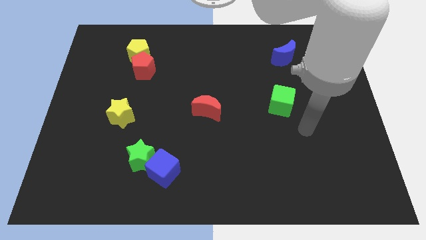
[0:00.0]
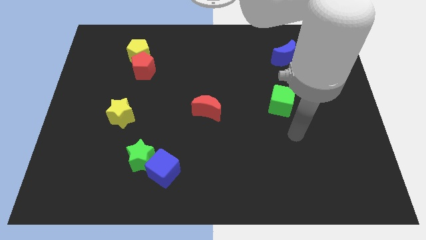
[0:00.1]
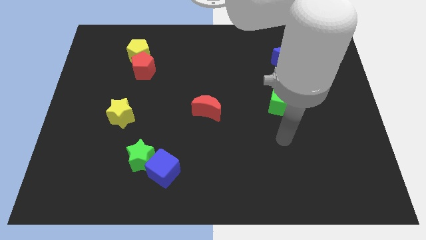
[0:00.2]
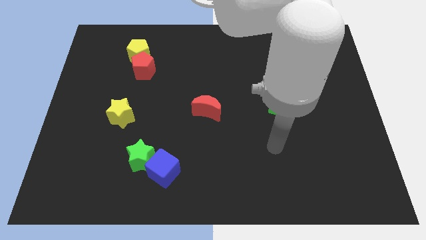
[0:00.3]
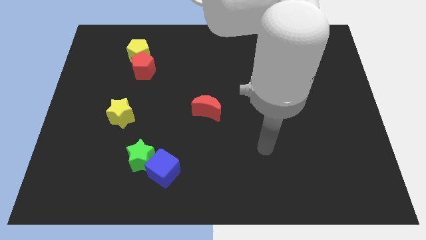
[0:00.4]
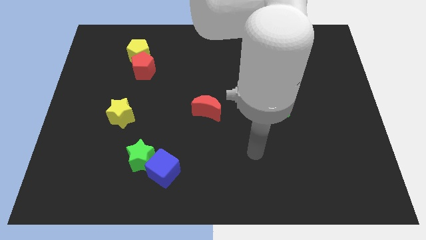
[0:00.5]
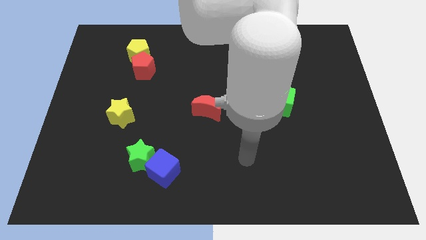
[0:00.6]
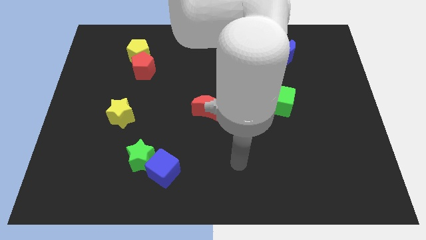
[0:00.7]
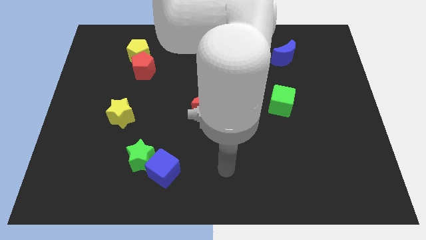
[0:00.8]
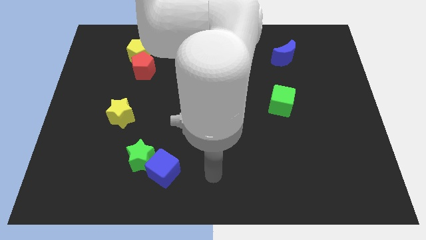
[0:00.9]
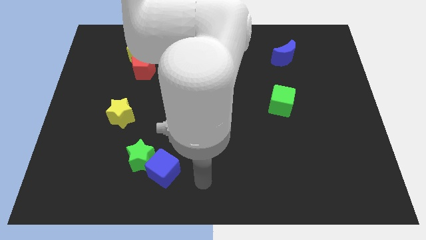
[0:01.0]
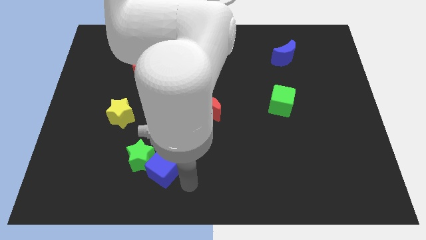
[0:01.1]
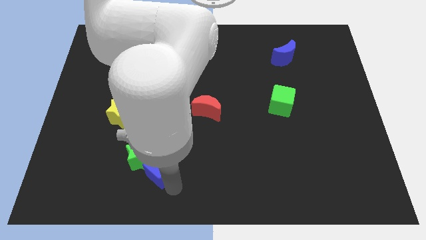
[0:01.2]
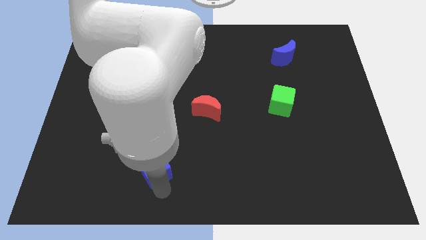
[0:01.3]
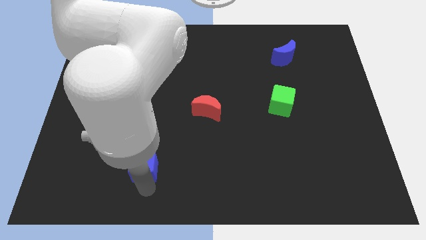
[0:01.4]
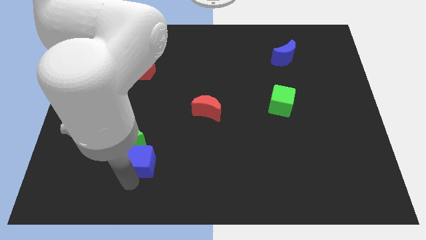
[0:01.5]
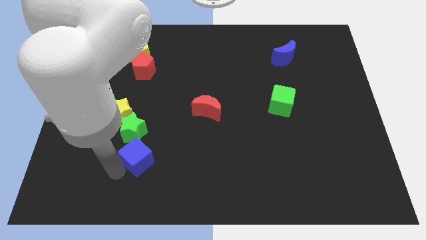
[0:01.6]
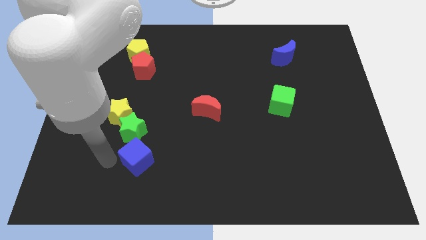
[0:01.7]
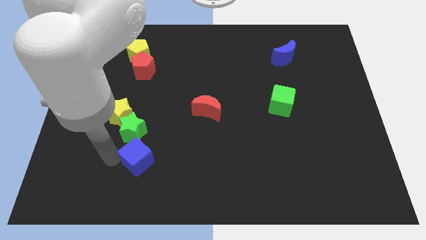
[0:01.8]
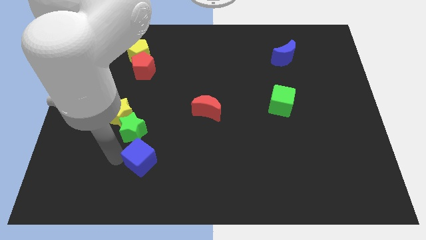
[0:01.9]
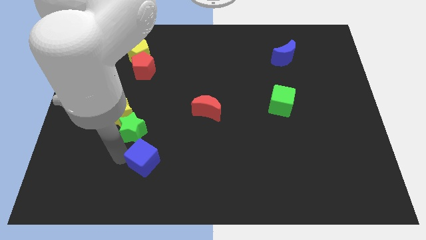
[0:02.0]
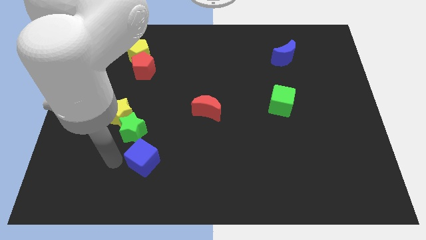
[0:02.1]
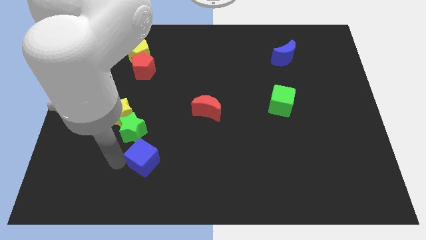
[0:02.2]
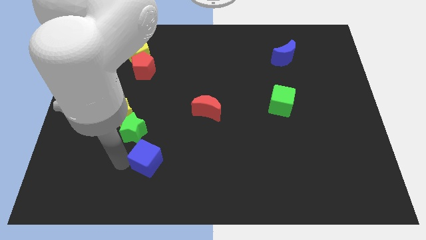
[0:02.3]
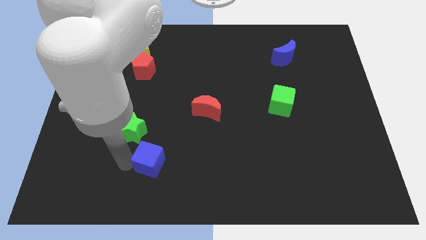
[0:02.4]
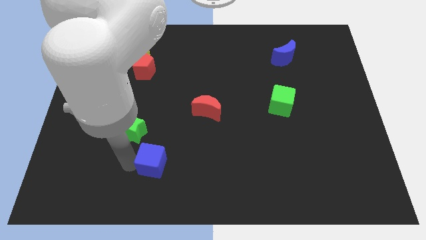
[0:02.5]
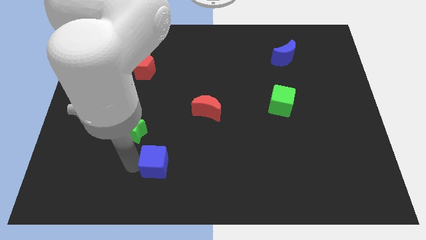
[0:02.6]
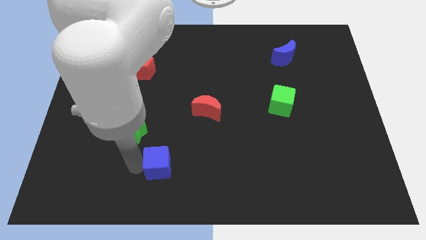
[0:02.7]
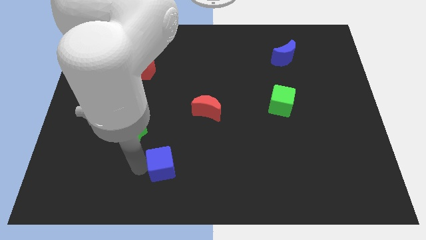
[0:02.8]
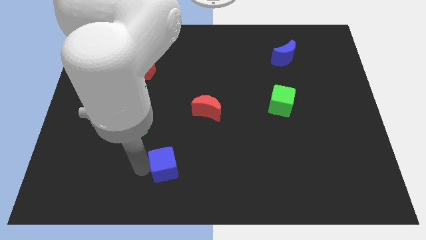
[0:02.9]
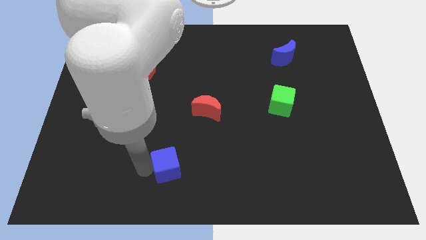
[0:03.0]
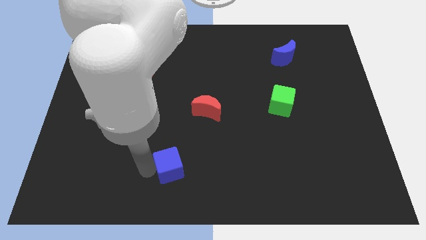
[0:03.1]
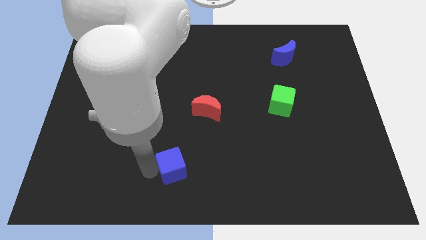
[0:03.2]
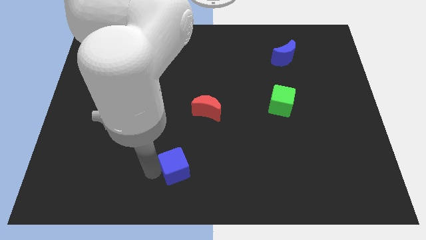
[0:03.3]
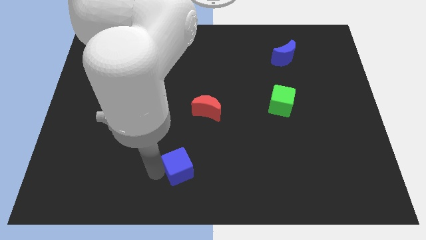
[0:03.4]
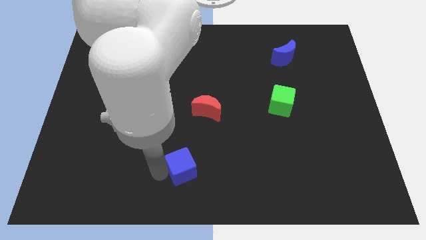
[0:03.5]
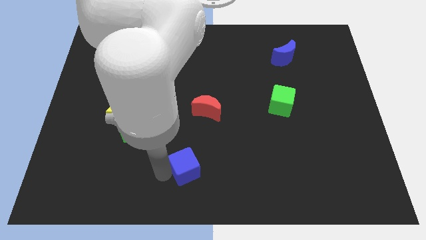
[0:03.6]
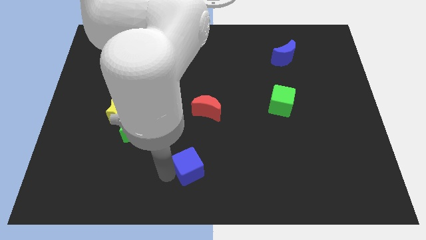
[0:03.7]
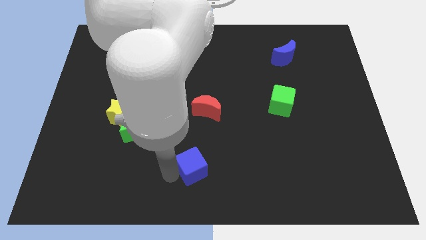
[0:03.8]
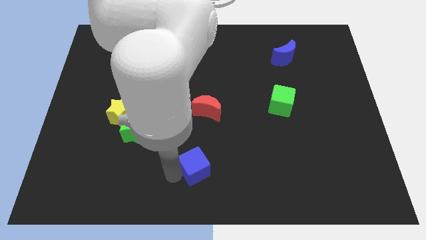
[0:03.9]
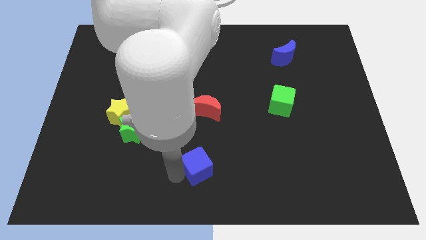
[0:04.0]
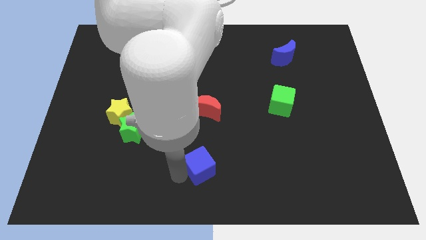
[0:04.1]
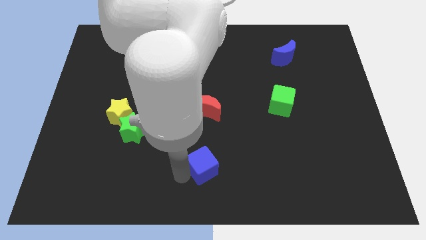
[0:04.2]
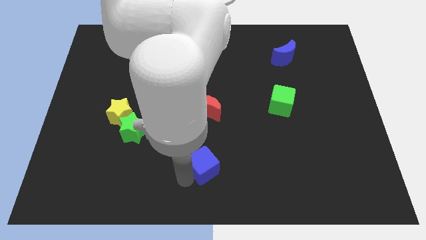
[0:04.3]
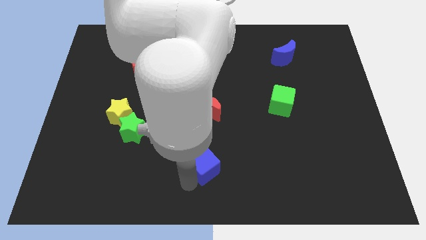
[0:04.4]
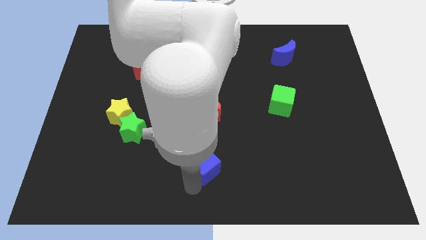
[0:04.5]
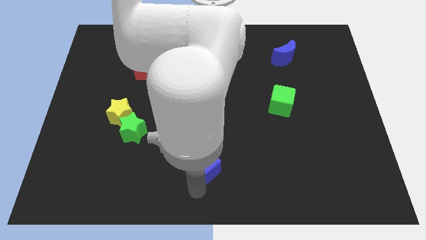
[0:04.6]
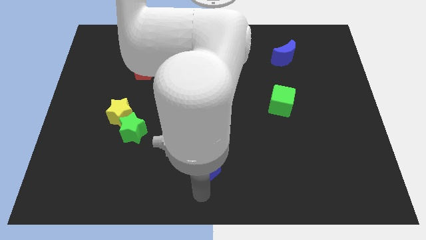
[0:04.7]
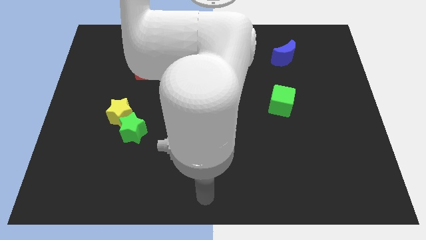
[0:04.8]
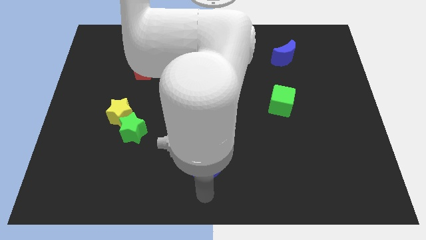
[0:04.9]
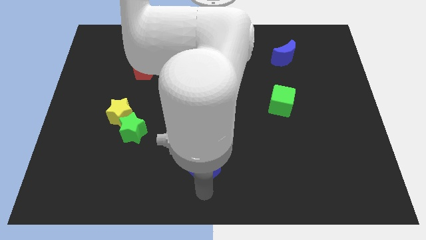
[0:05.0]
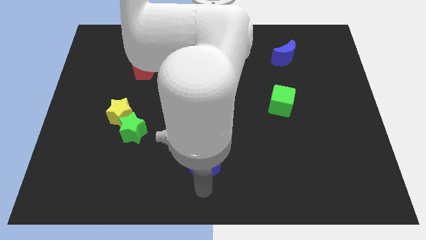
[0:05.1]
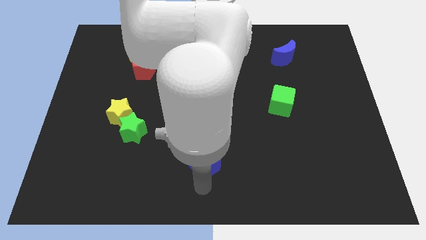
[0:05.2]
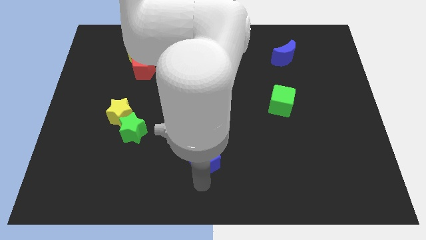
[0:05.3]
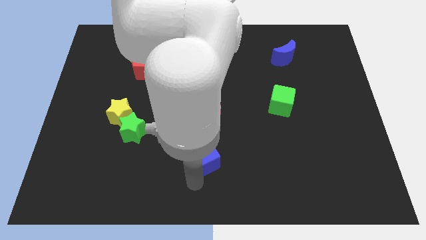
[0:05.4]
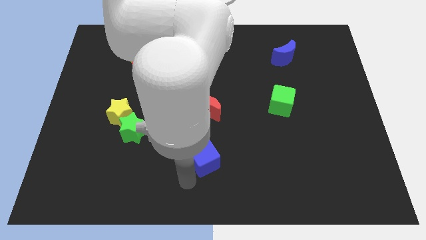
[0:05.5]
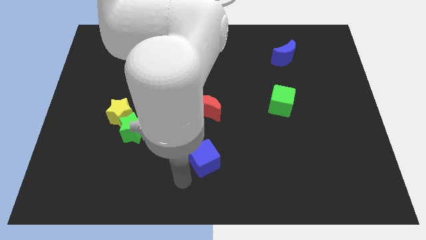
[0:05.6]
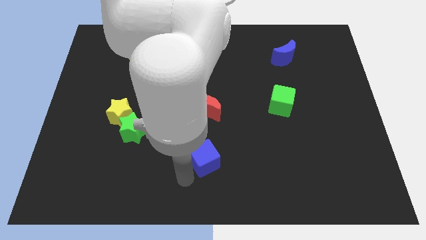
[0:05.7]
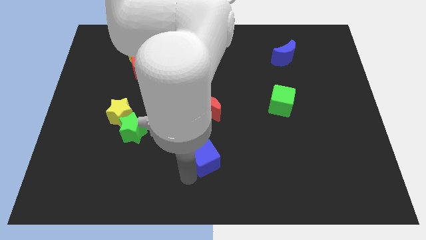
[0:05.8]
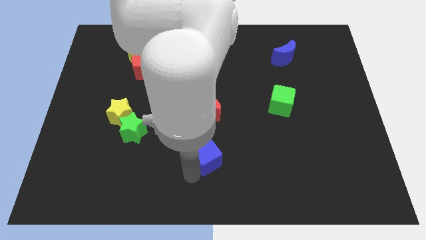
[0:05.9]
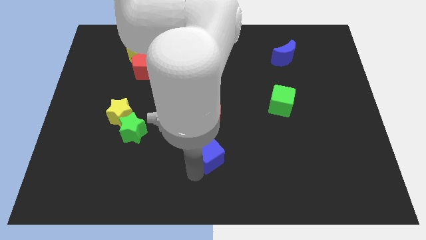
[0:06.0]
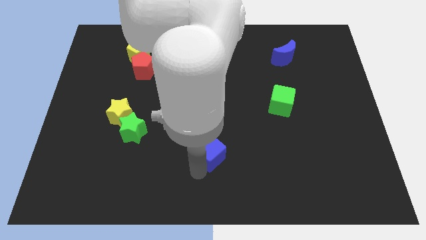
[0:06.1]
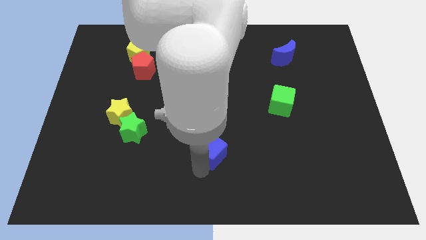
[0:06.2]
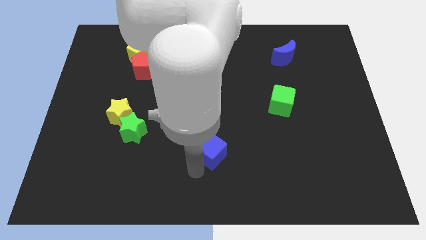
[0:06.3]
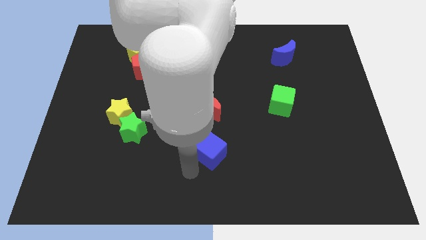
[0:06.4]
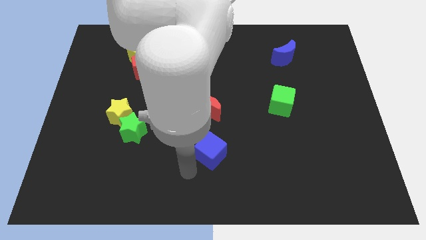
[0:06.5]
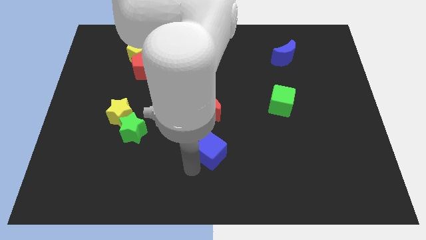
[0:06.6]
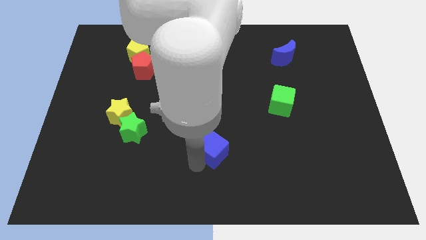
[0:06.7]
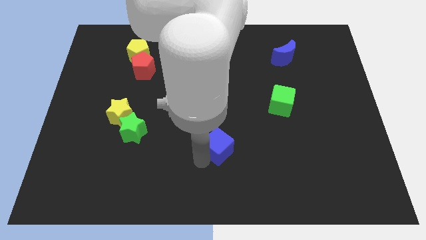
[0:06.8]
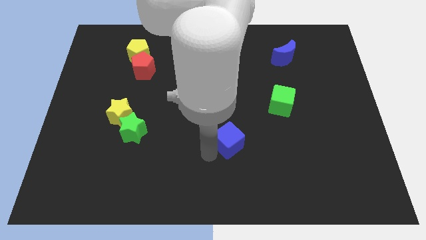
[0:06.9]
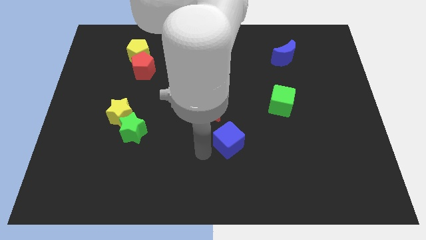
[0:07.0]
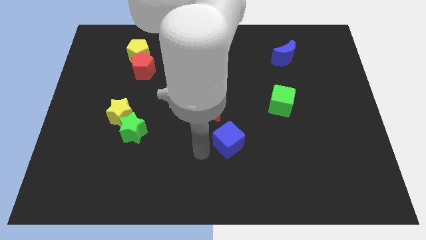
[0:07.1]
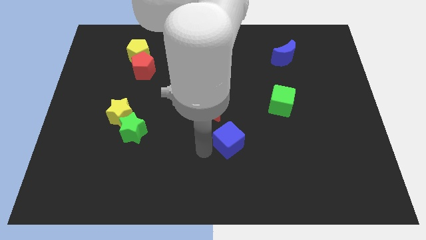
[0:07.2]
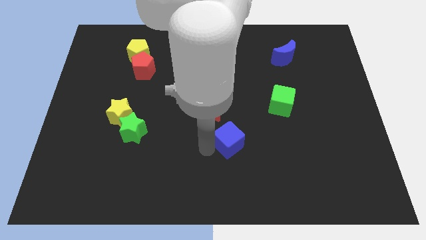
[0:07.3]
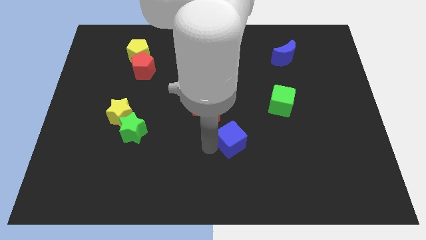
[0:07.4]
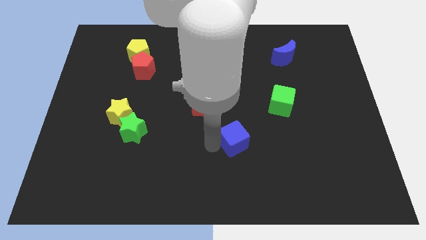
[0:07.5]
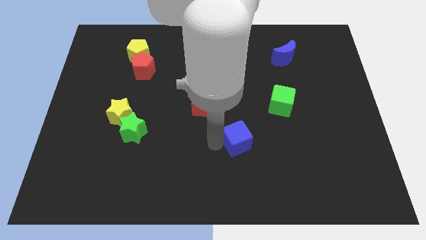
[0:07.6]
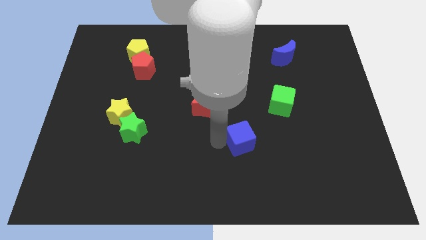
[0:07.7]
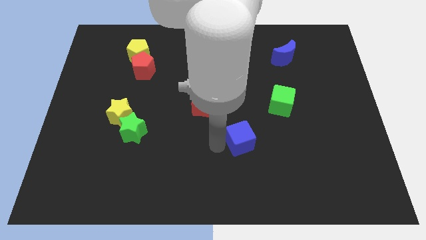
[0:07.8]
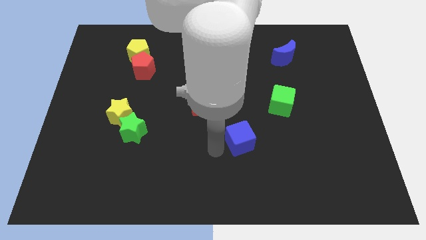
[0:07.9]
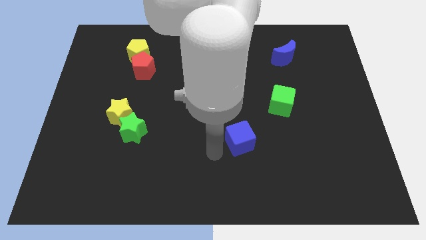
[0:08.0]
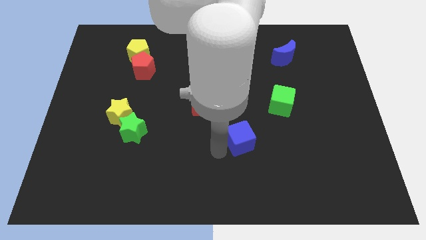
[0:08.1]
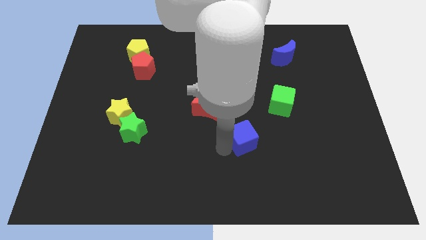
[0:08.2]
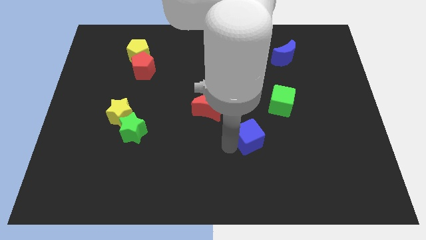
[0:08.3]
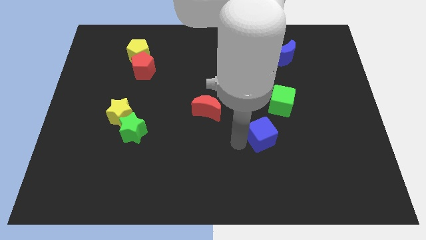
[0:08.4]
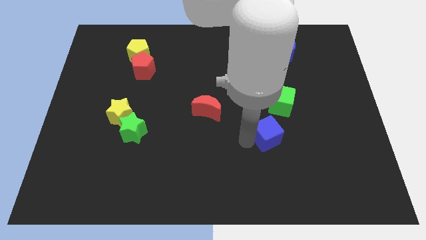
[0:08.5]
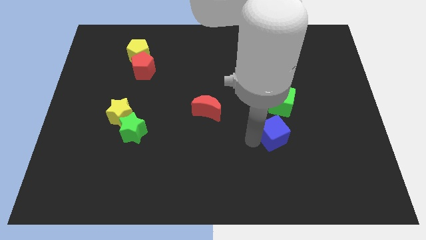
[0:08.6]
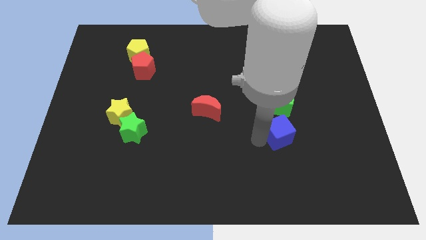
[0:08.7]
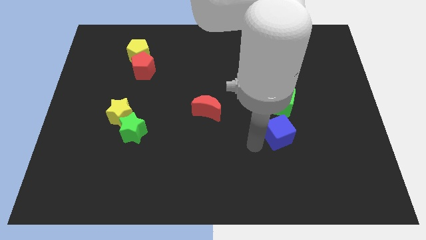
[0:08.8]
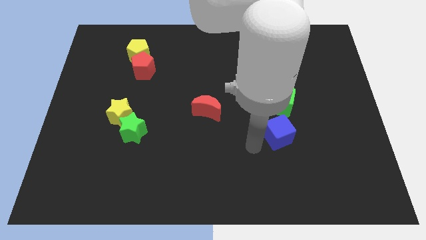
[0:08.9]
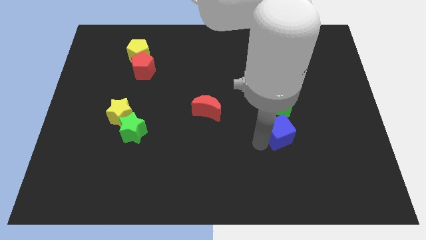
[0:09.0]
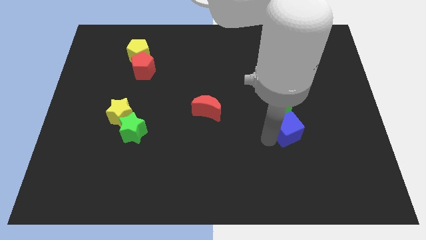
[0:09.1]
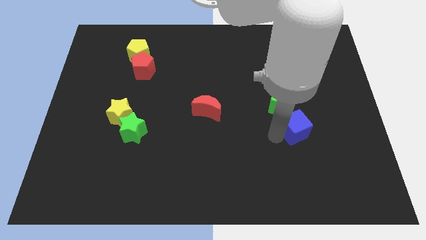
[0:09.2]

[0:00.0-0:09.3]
slide the blue cube to the bottom right side of the green cube
